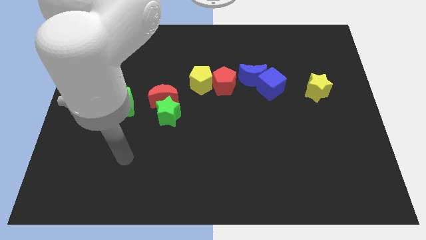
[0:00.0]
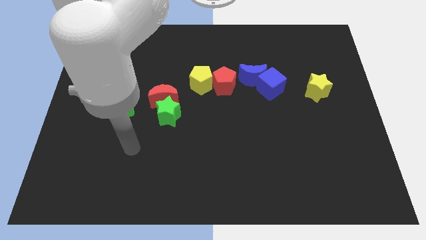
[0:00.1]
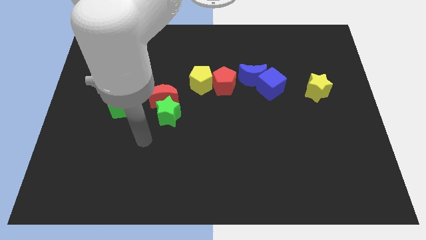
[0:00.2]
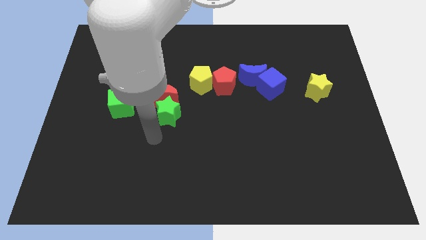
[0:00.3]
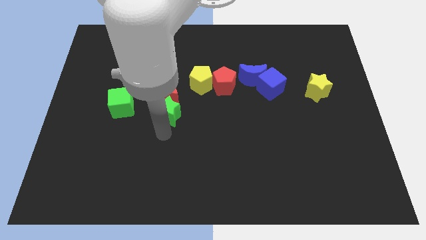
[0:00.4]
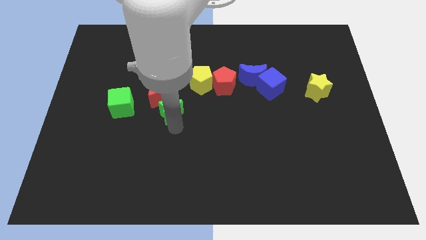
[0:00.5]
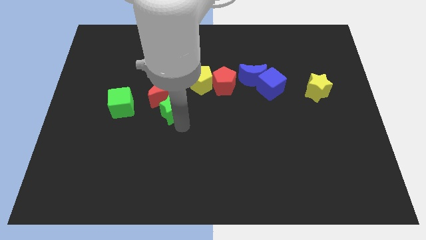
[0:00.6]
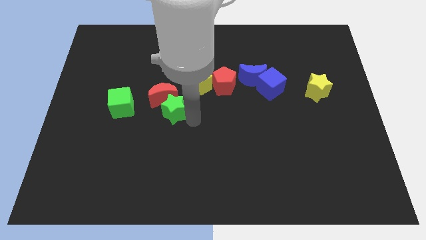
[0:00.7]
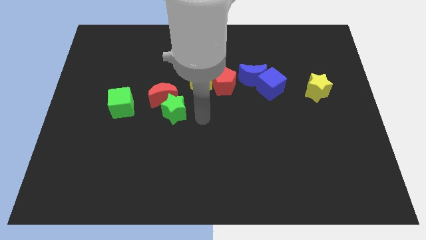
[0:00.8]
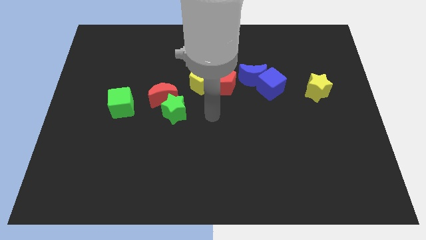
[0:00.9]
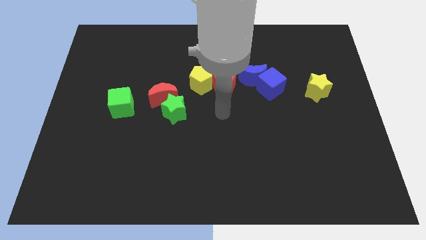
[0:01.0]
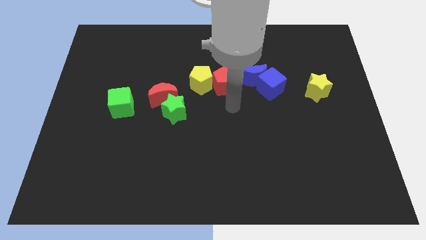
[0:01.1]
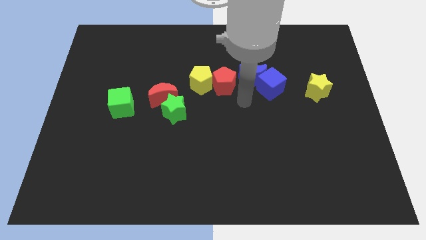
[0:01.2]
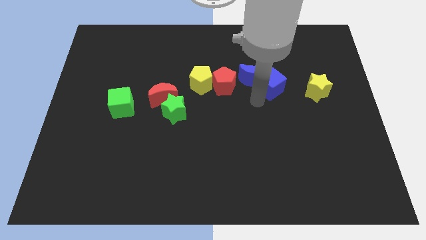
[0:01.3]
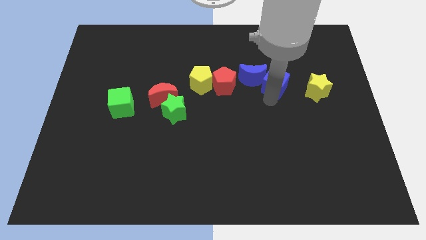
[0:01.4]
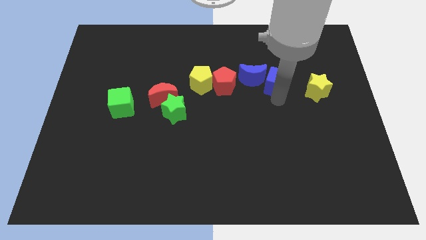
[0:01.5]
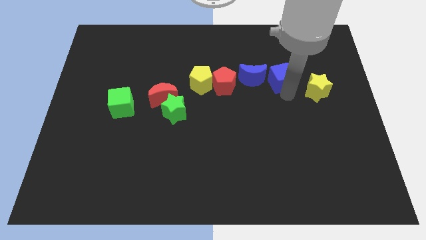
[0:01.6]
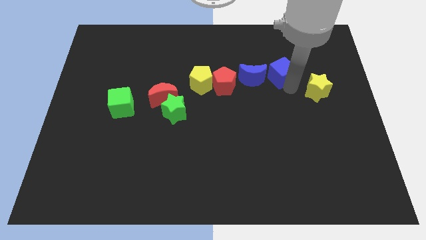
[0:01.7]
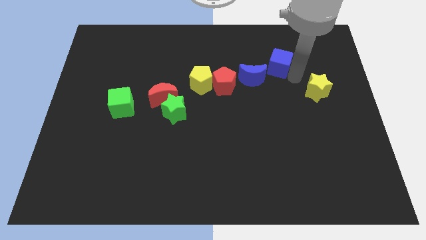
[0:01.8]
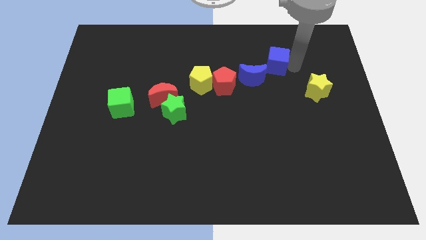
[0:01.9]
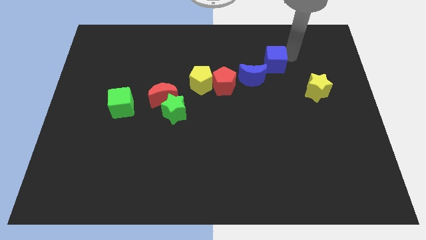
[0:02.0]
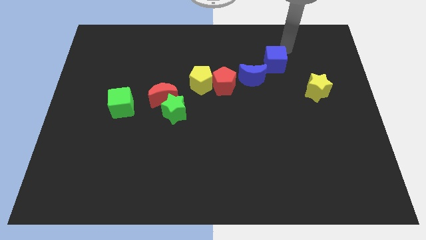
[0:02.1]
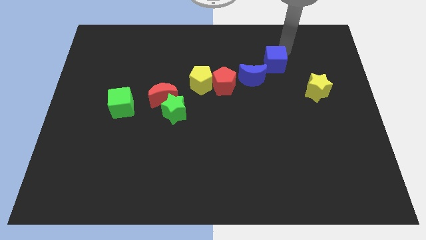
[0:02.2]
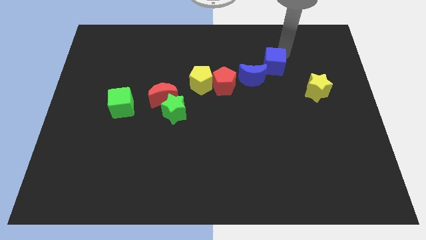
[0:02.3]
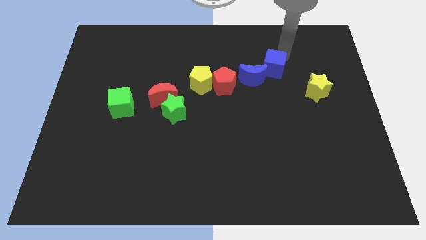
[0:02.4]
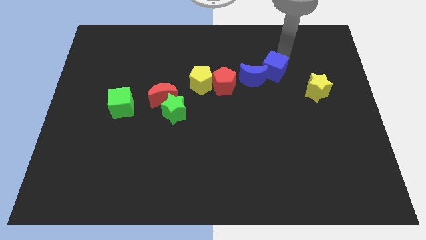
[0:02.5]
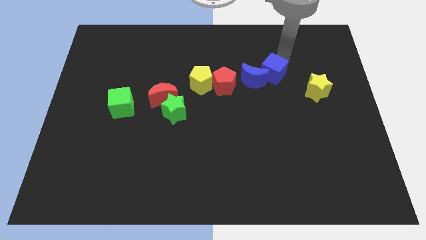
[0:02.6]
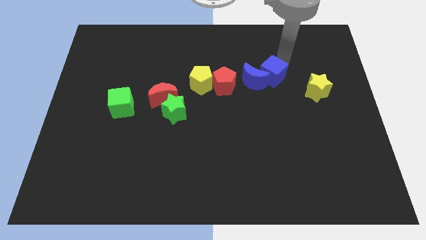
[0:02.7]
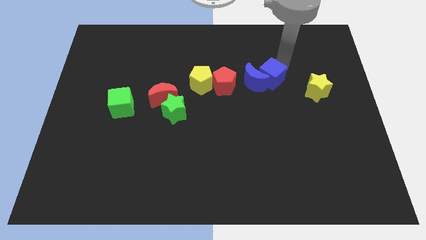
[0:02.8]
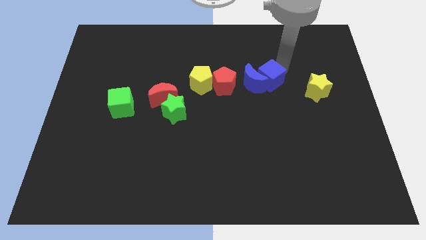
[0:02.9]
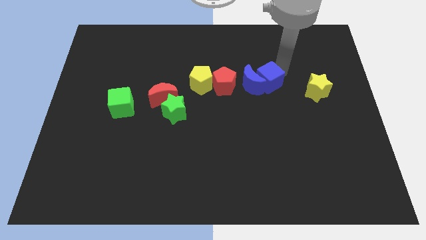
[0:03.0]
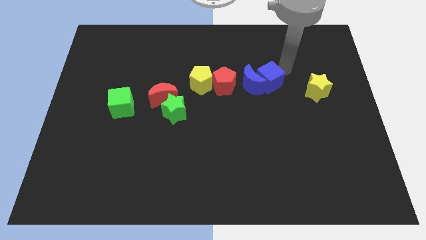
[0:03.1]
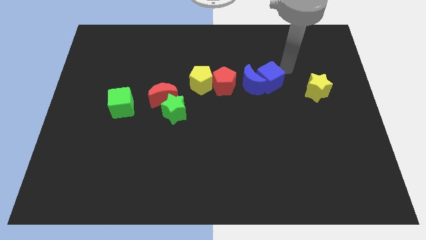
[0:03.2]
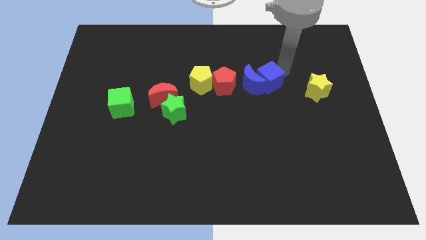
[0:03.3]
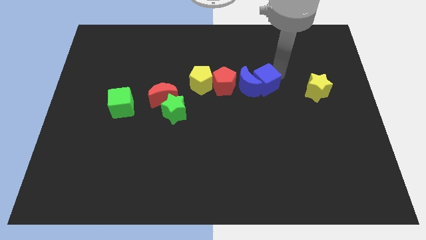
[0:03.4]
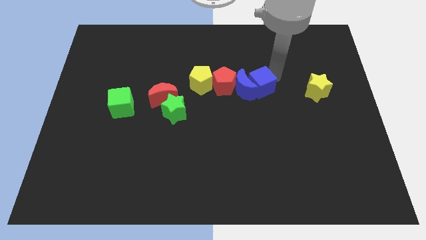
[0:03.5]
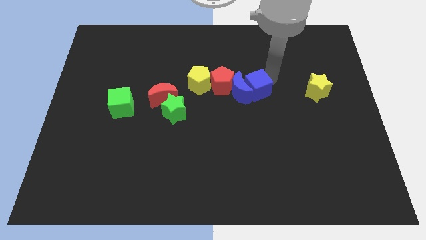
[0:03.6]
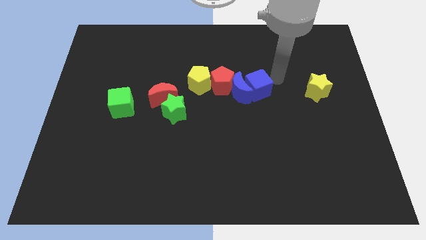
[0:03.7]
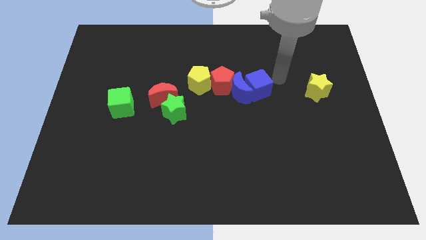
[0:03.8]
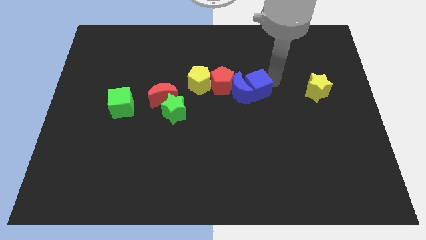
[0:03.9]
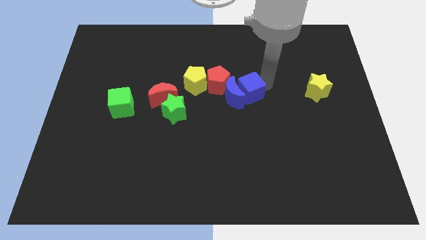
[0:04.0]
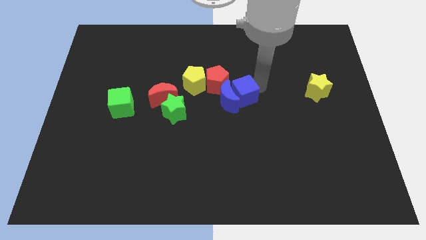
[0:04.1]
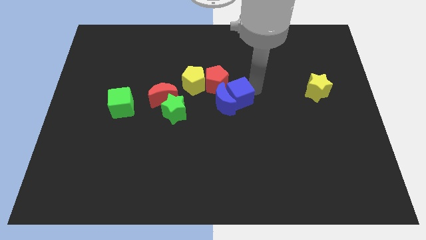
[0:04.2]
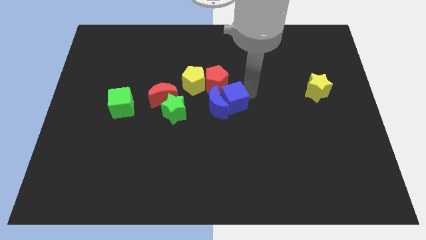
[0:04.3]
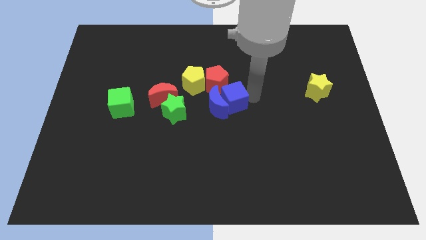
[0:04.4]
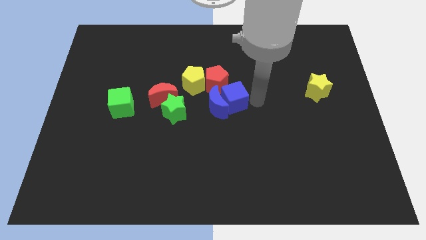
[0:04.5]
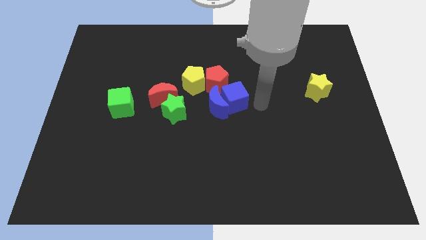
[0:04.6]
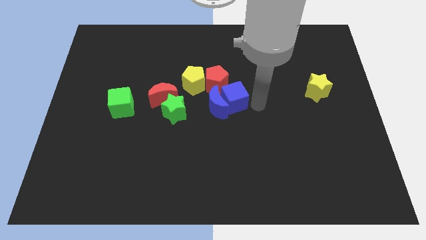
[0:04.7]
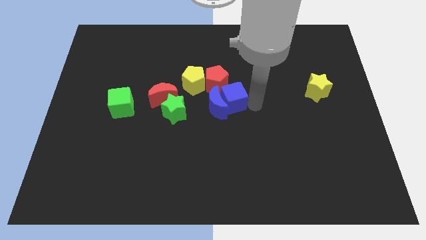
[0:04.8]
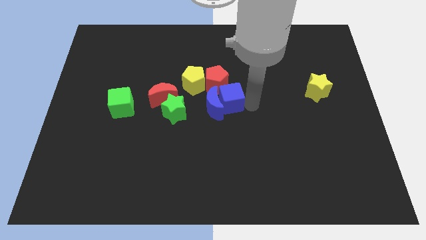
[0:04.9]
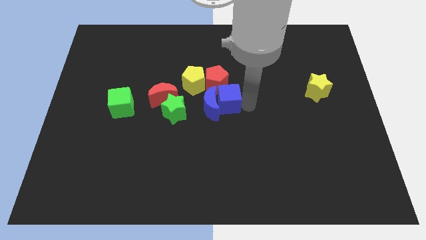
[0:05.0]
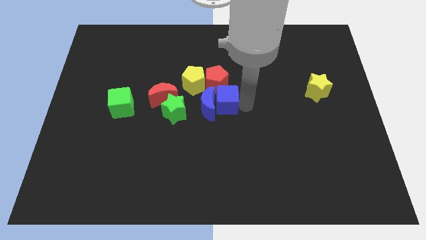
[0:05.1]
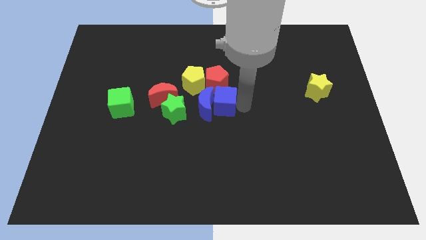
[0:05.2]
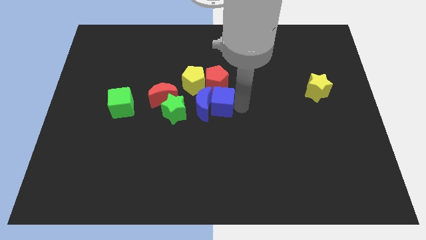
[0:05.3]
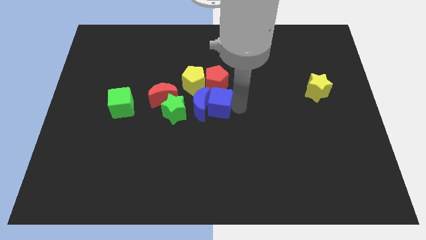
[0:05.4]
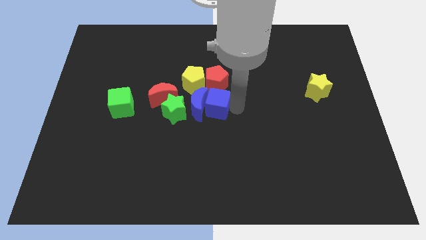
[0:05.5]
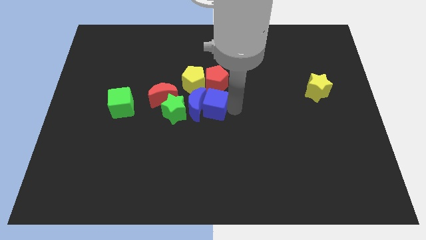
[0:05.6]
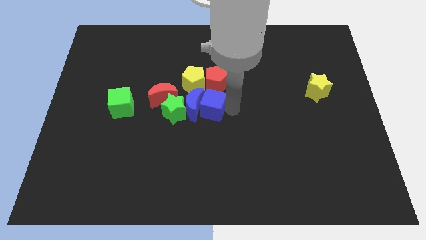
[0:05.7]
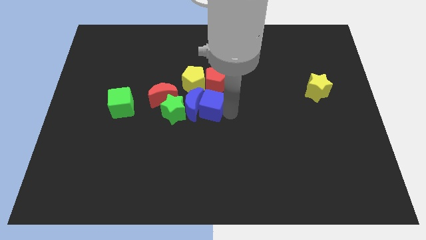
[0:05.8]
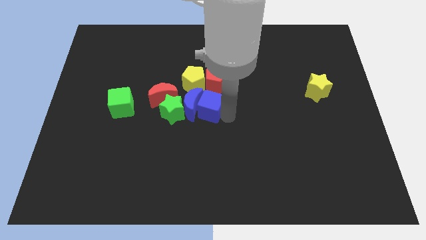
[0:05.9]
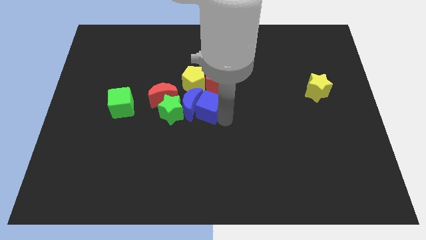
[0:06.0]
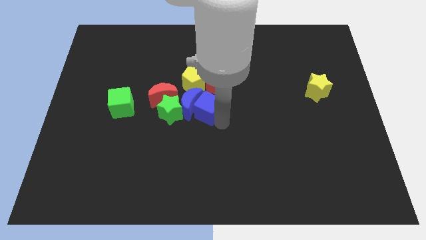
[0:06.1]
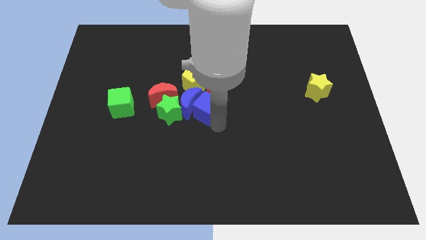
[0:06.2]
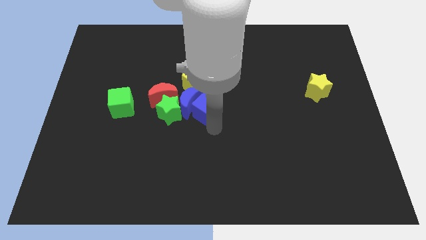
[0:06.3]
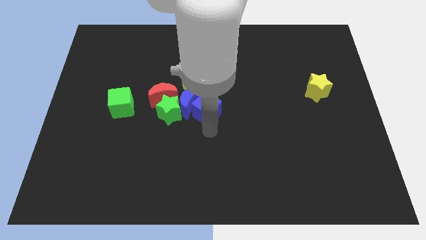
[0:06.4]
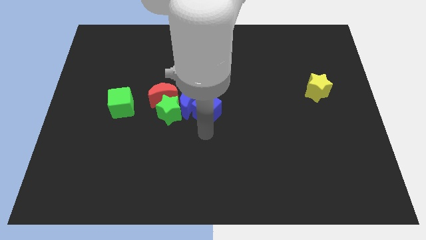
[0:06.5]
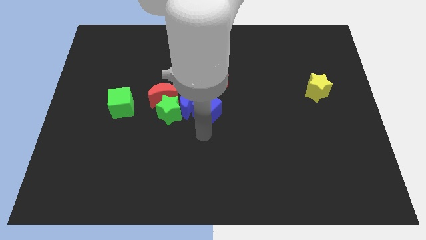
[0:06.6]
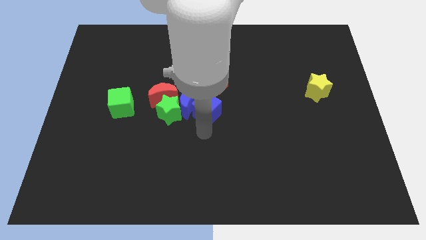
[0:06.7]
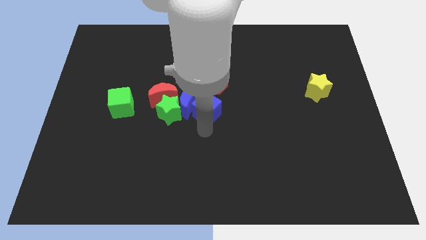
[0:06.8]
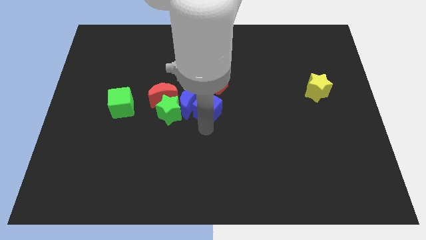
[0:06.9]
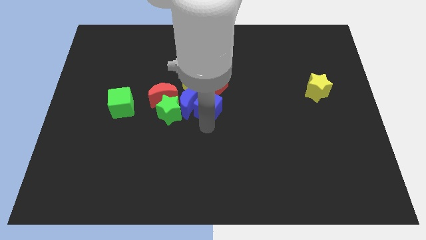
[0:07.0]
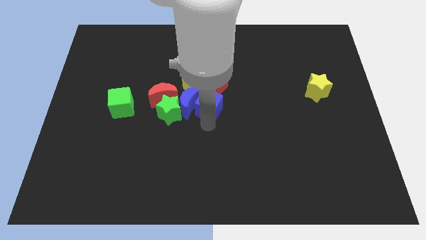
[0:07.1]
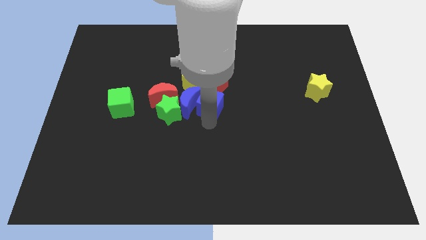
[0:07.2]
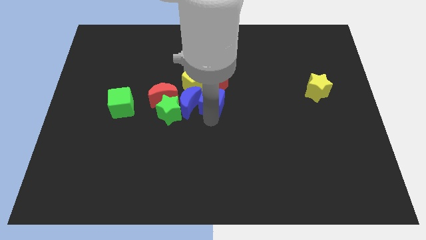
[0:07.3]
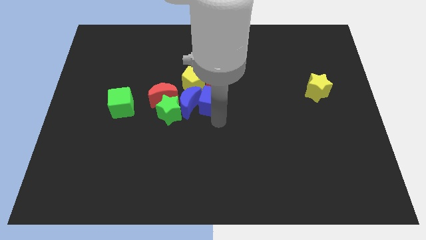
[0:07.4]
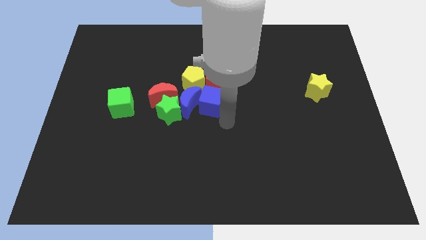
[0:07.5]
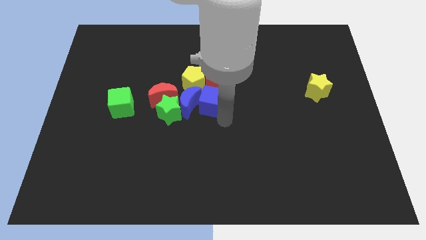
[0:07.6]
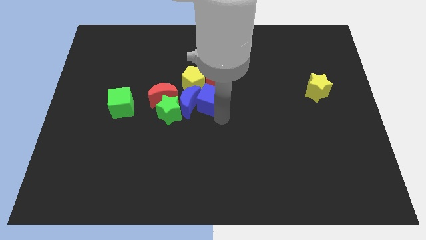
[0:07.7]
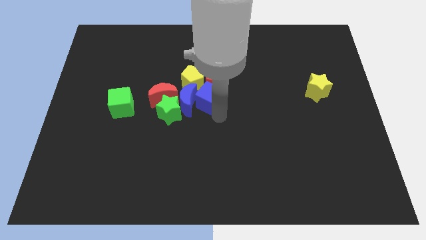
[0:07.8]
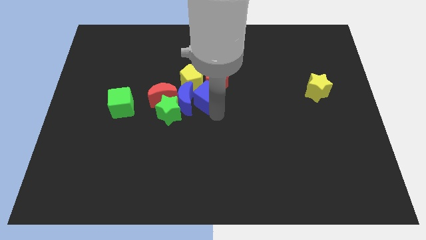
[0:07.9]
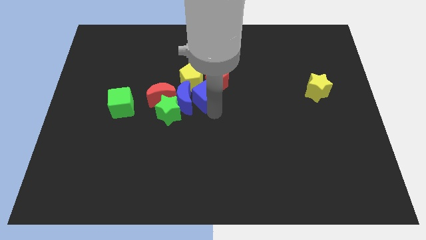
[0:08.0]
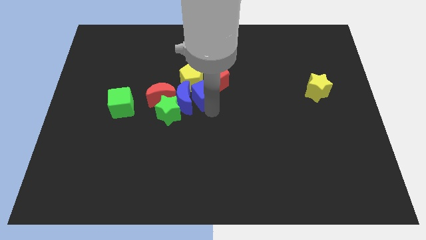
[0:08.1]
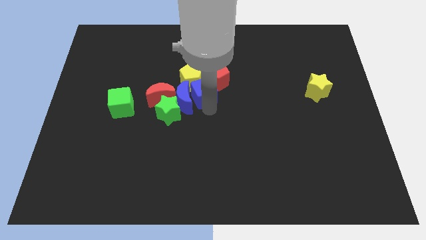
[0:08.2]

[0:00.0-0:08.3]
push the blue cube next to the yellow pentagon
